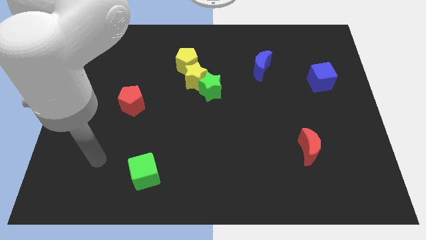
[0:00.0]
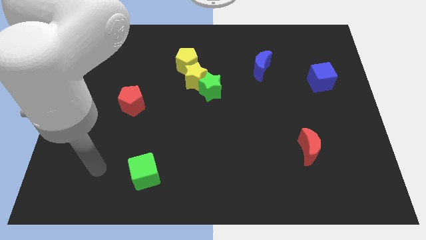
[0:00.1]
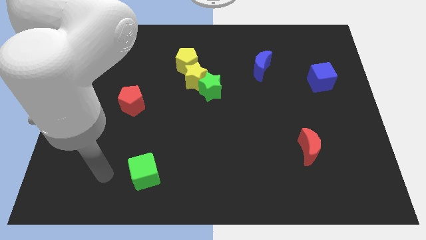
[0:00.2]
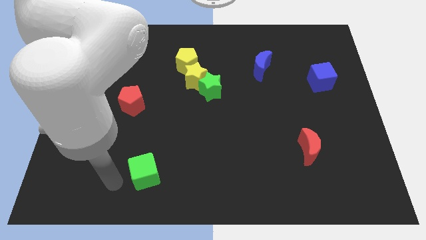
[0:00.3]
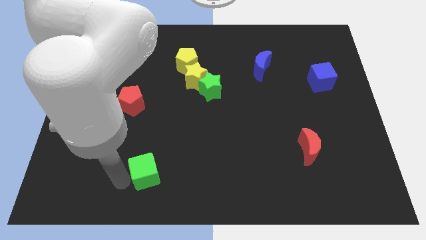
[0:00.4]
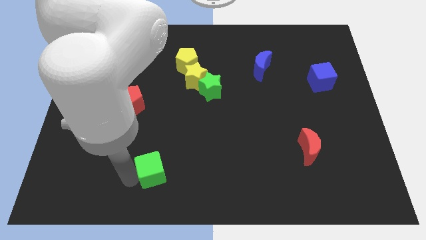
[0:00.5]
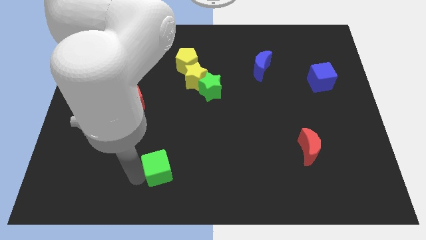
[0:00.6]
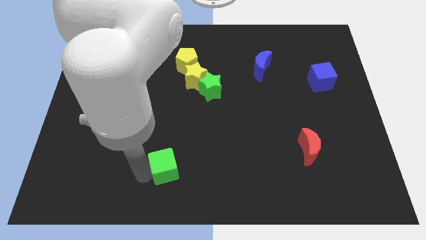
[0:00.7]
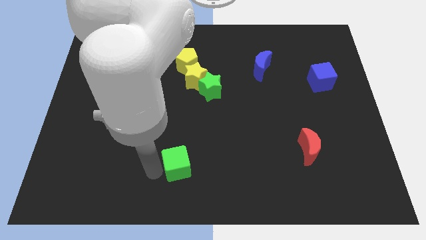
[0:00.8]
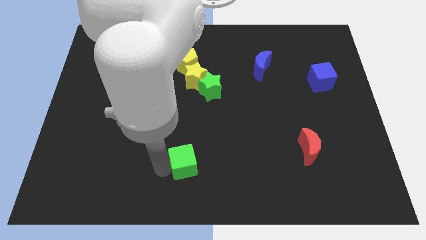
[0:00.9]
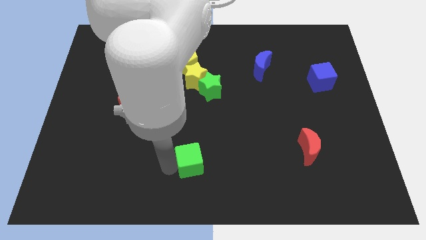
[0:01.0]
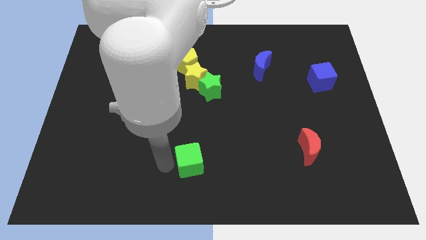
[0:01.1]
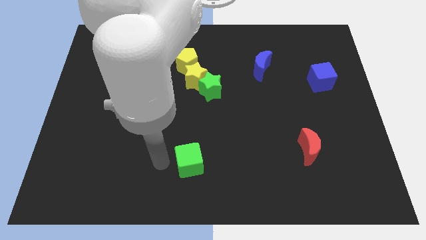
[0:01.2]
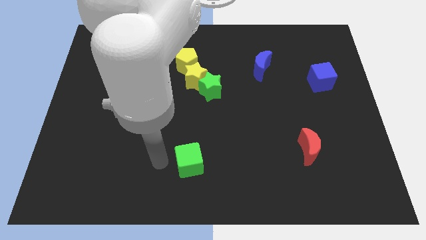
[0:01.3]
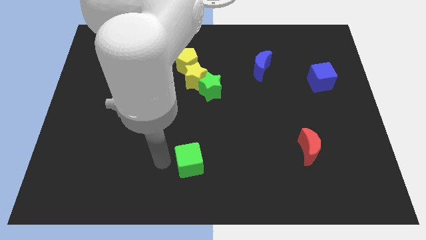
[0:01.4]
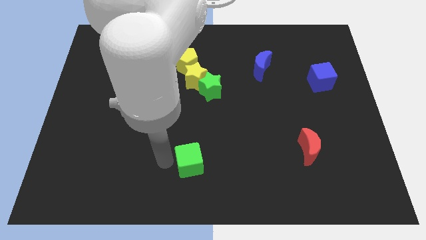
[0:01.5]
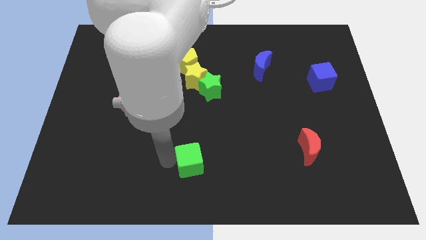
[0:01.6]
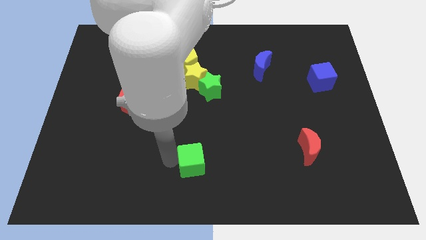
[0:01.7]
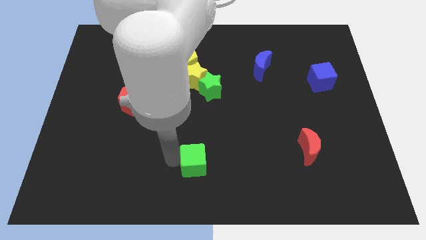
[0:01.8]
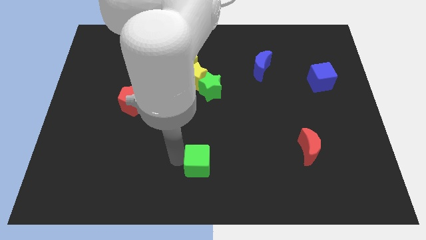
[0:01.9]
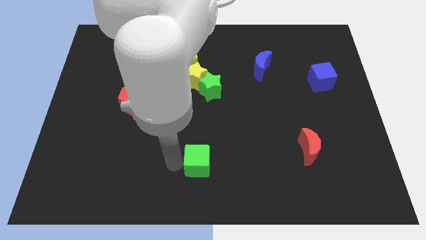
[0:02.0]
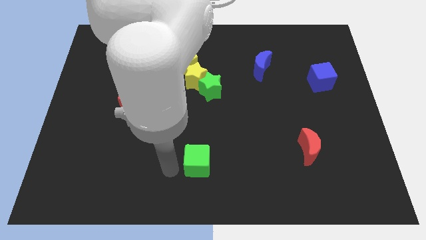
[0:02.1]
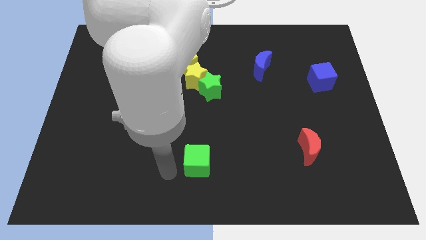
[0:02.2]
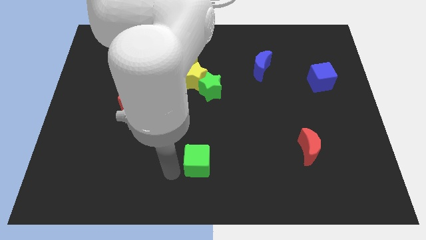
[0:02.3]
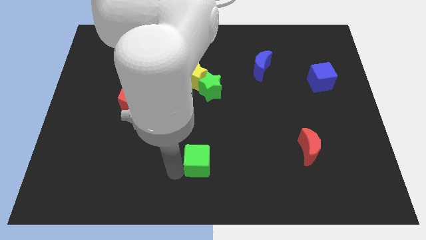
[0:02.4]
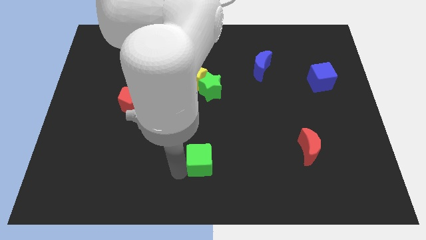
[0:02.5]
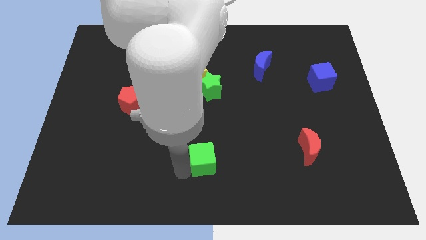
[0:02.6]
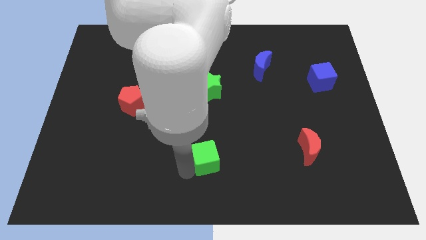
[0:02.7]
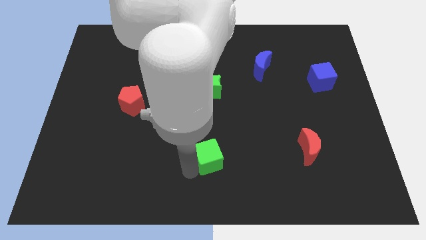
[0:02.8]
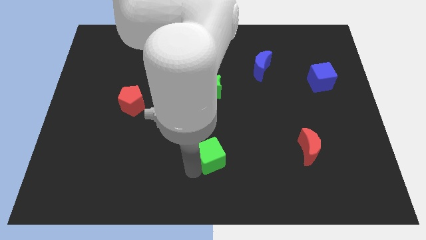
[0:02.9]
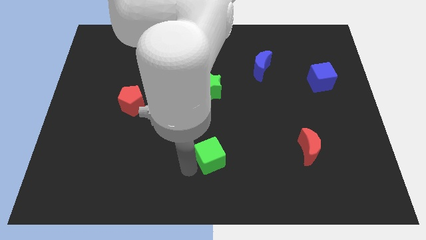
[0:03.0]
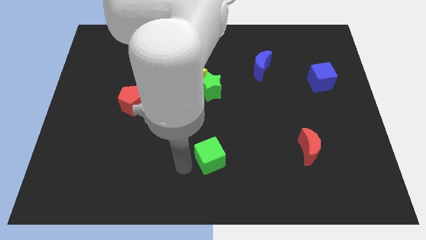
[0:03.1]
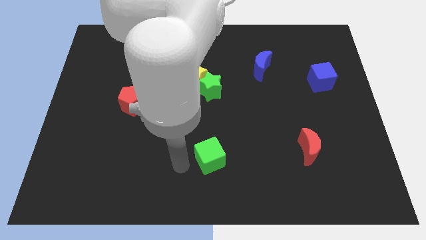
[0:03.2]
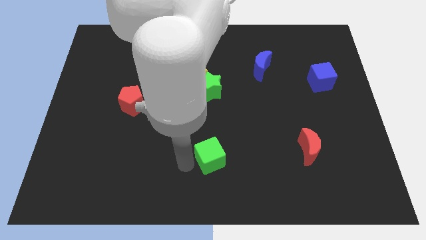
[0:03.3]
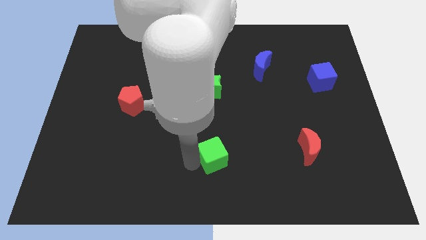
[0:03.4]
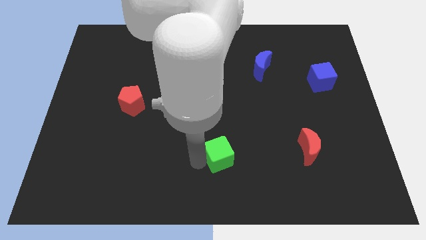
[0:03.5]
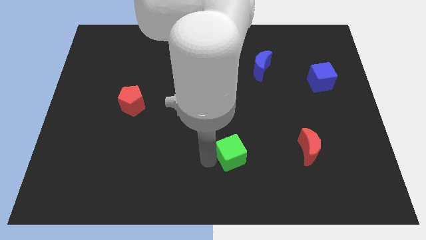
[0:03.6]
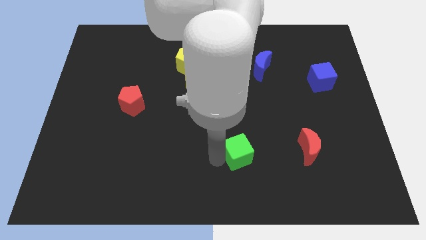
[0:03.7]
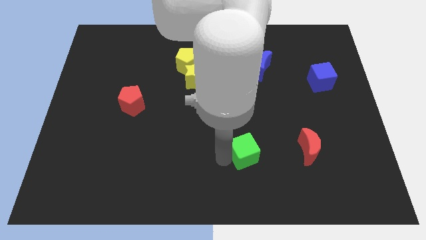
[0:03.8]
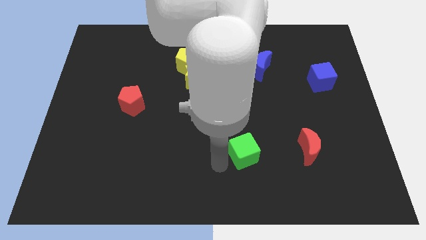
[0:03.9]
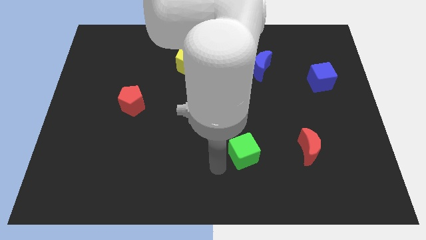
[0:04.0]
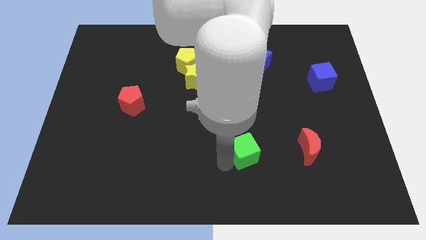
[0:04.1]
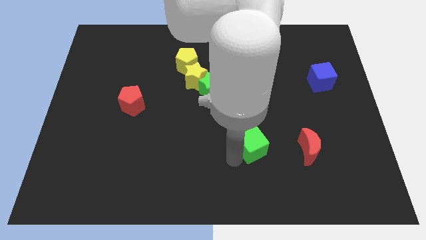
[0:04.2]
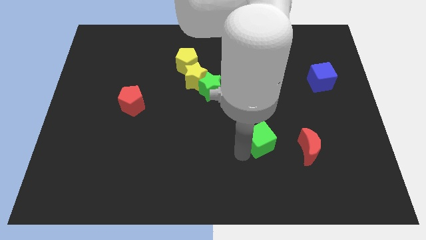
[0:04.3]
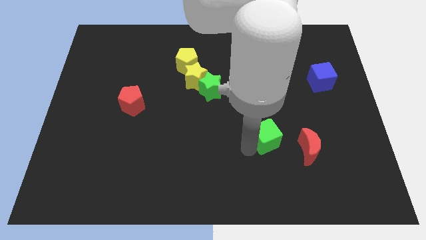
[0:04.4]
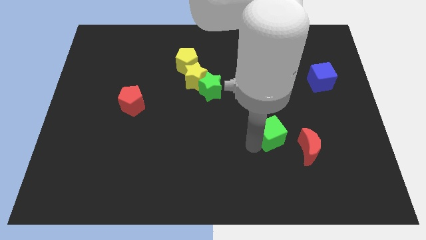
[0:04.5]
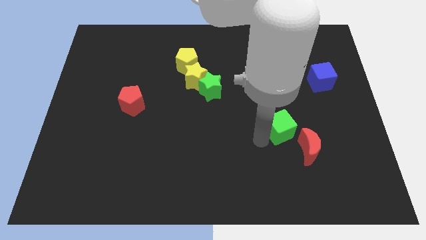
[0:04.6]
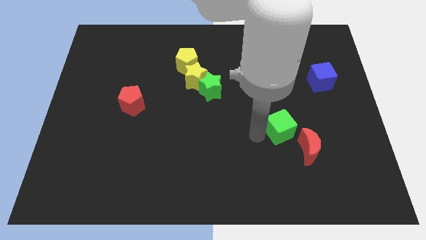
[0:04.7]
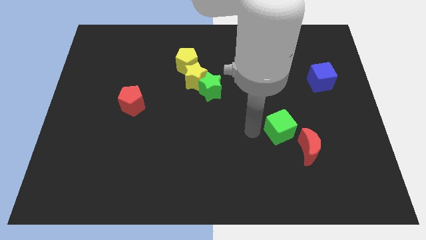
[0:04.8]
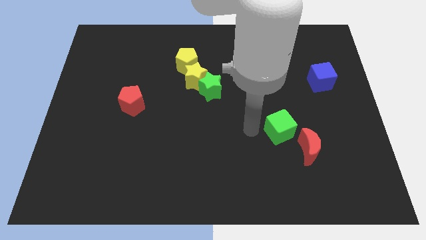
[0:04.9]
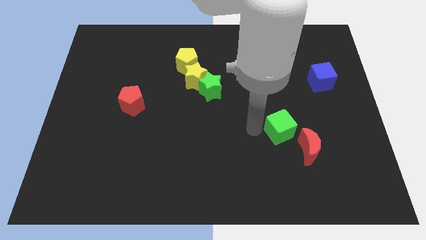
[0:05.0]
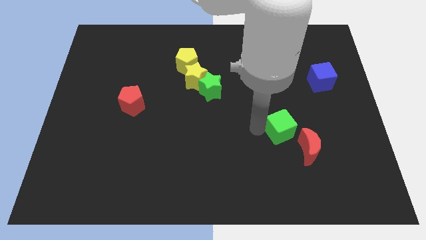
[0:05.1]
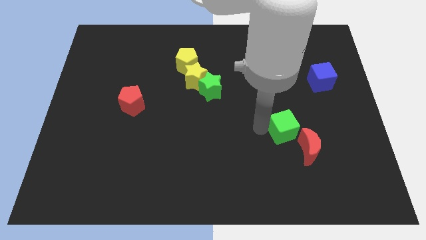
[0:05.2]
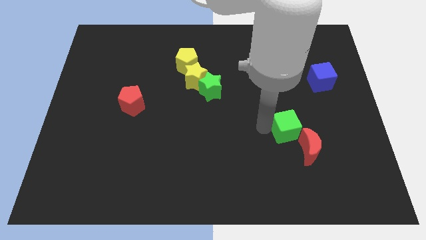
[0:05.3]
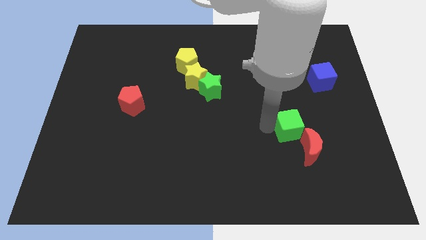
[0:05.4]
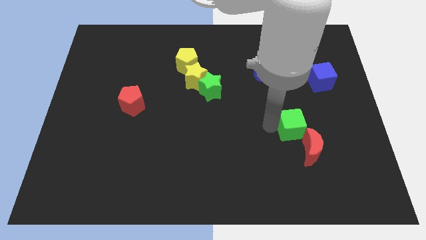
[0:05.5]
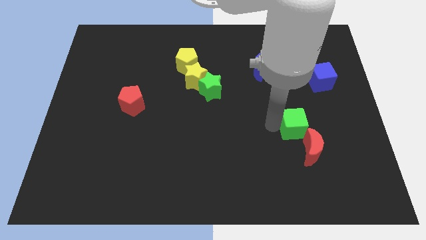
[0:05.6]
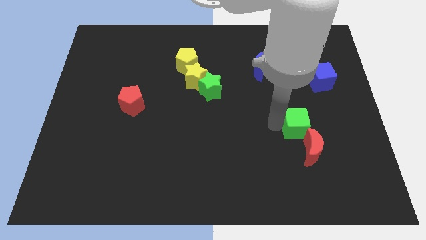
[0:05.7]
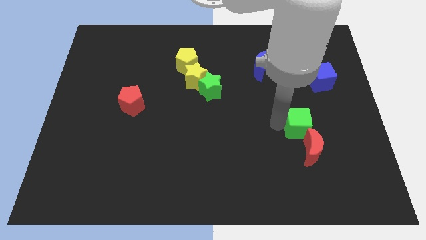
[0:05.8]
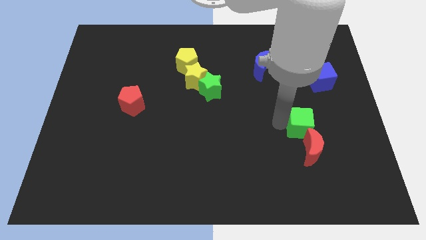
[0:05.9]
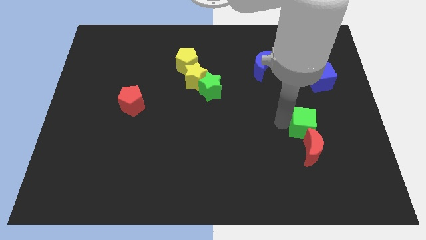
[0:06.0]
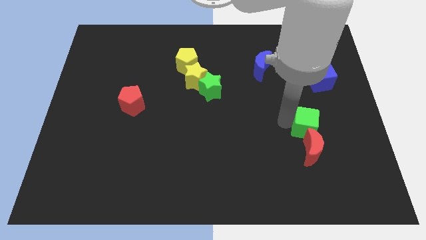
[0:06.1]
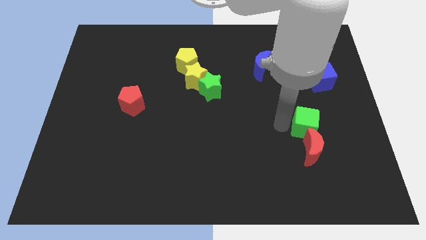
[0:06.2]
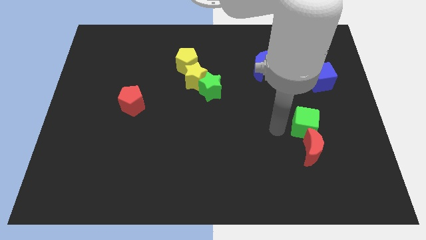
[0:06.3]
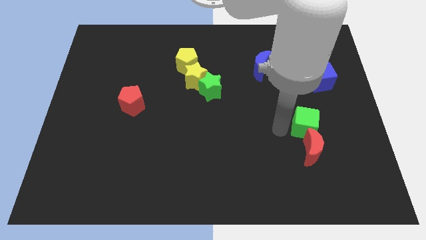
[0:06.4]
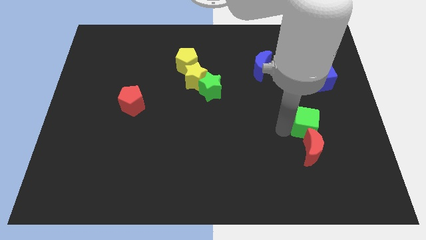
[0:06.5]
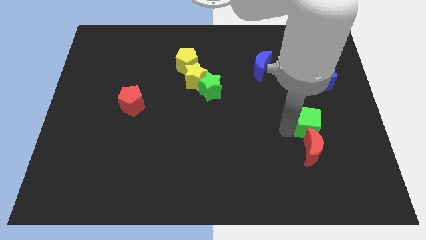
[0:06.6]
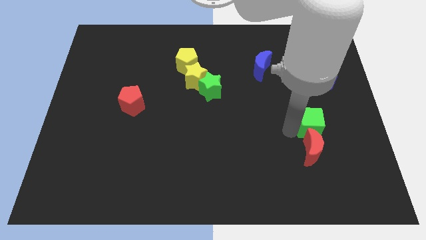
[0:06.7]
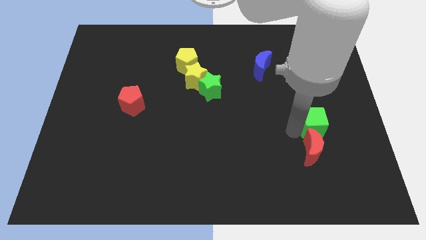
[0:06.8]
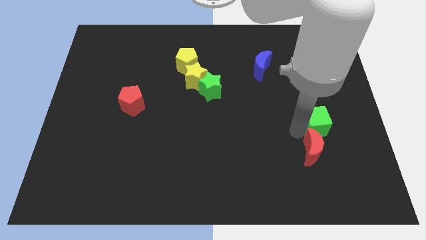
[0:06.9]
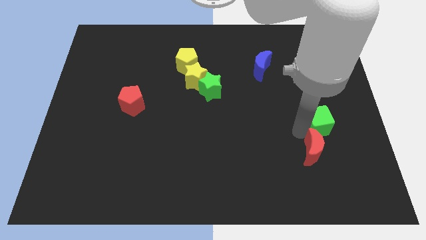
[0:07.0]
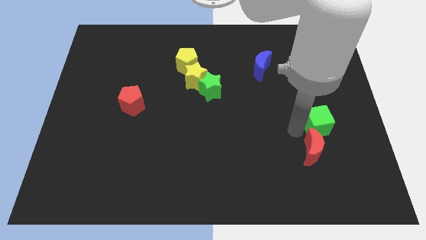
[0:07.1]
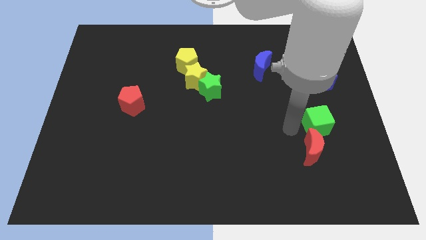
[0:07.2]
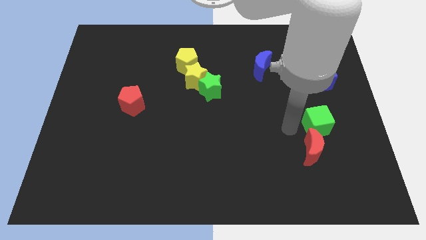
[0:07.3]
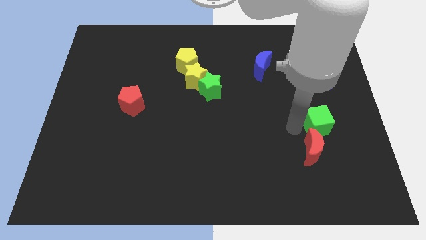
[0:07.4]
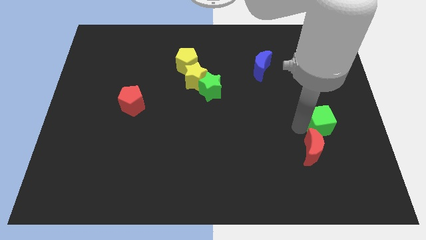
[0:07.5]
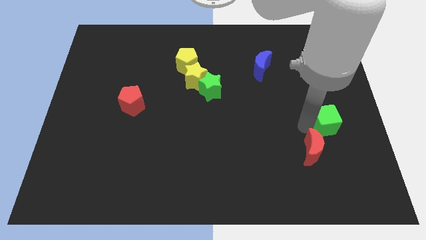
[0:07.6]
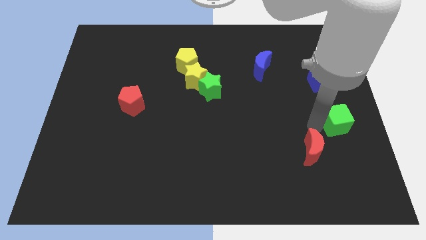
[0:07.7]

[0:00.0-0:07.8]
move the green cube to the right side
